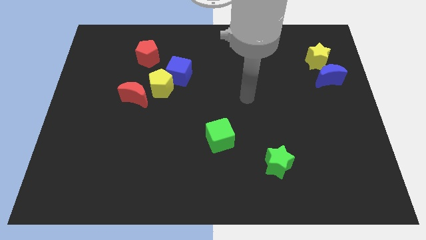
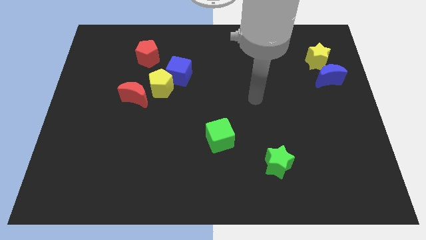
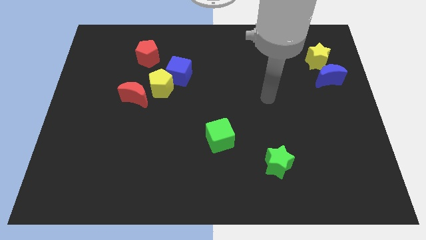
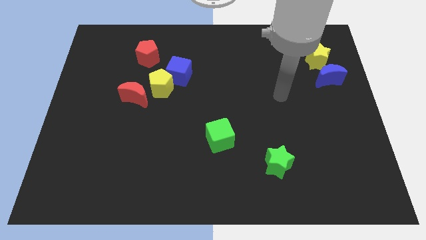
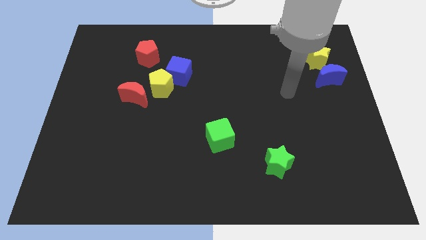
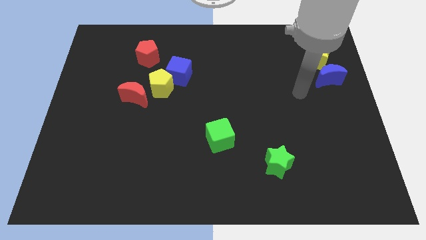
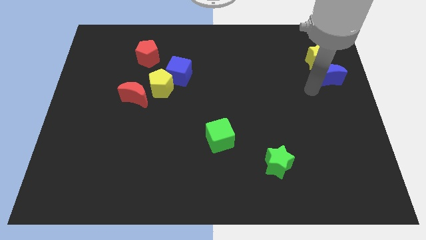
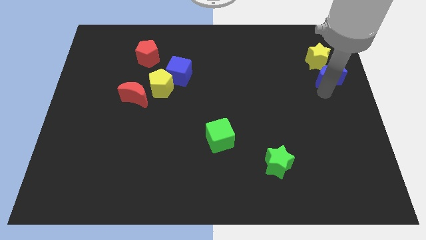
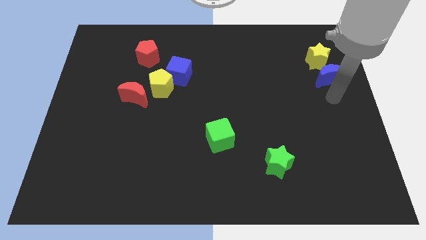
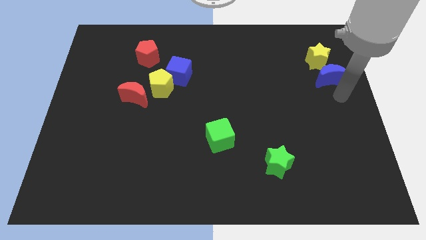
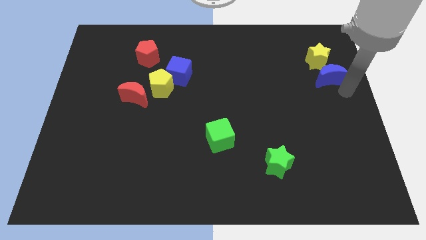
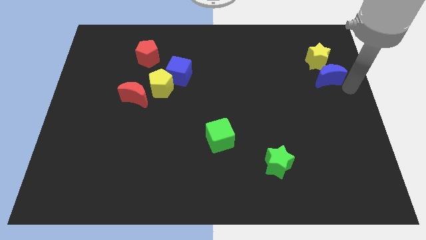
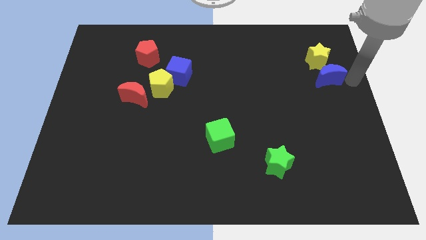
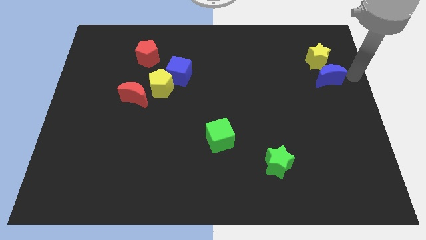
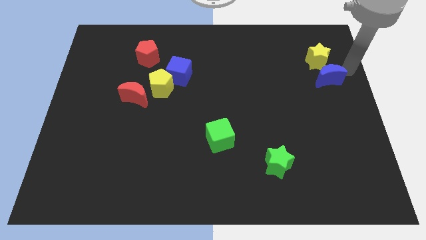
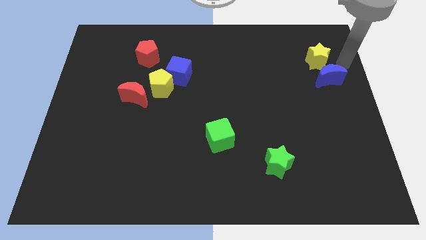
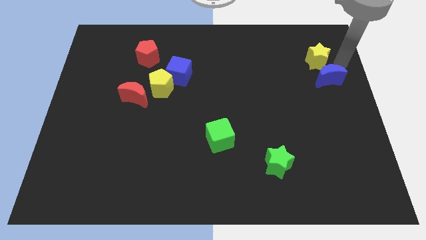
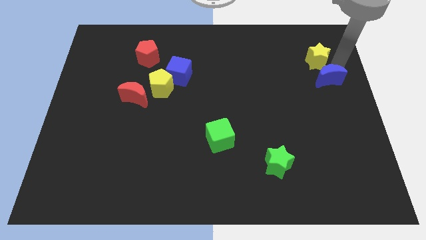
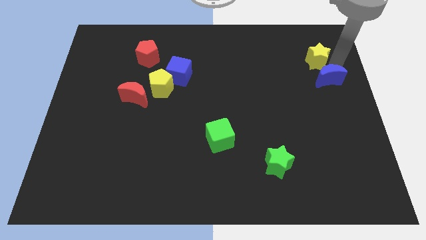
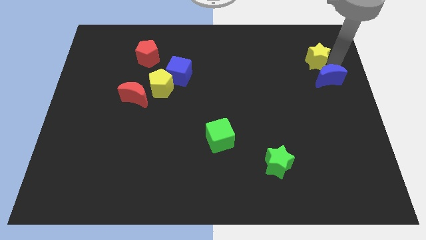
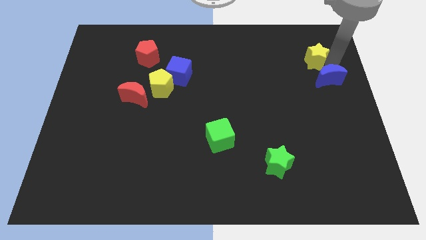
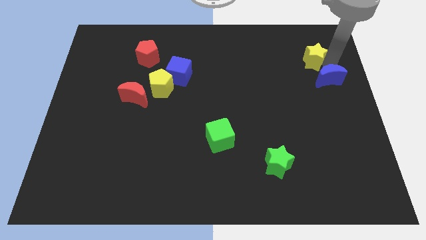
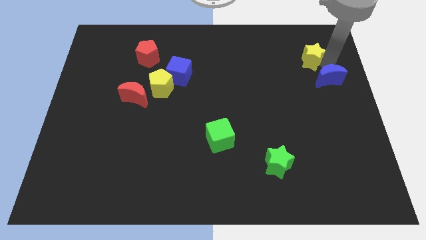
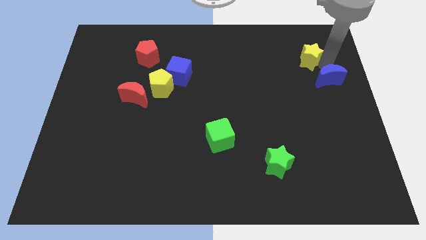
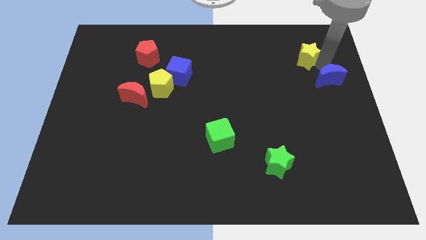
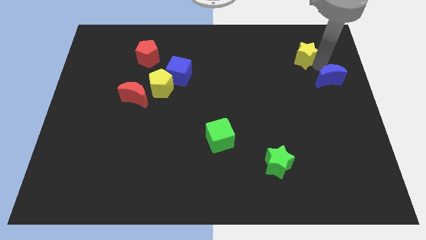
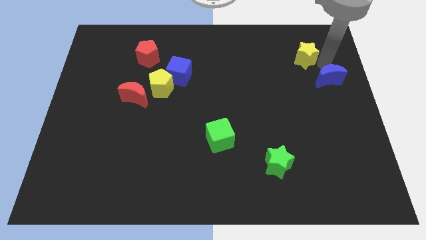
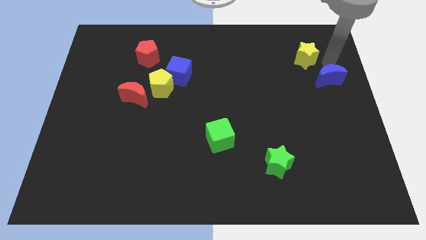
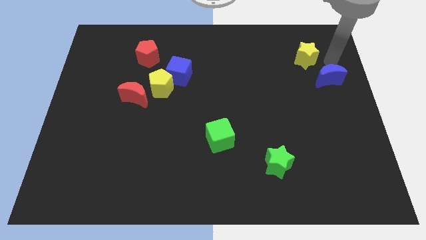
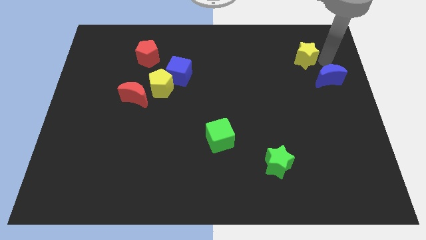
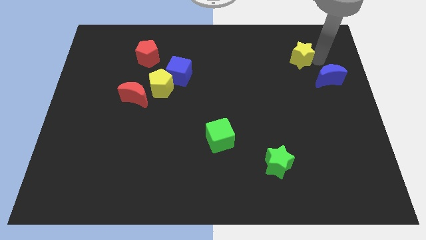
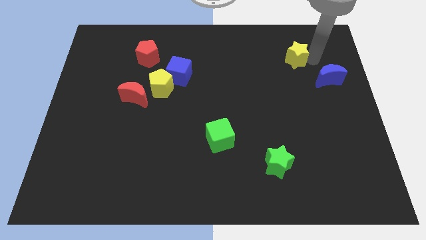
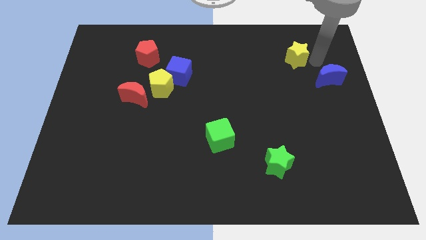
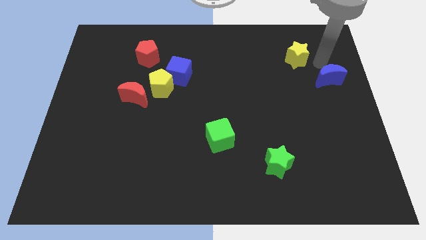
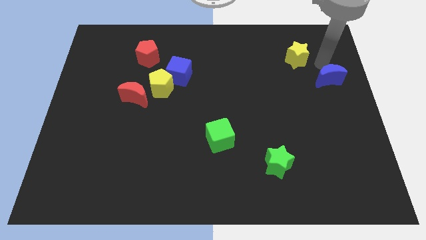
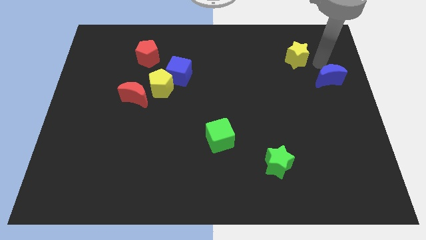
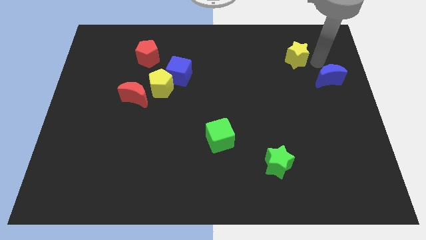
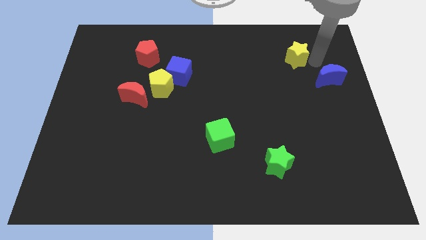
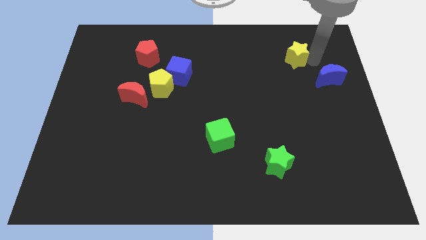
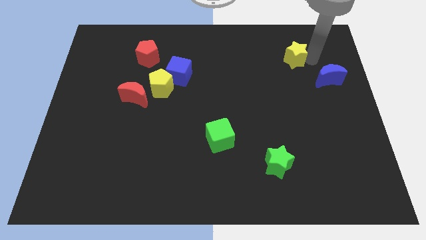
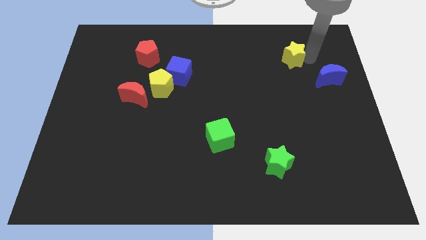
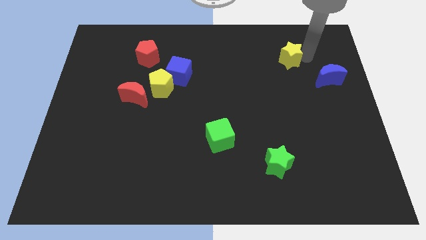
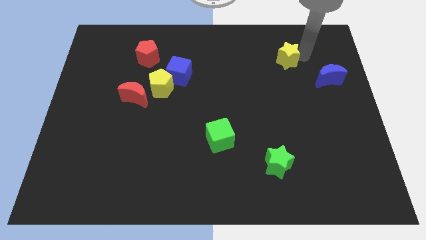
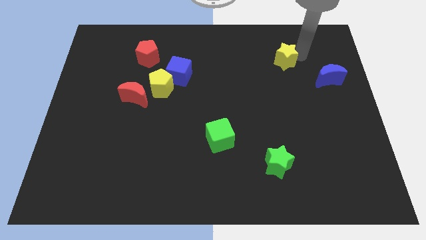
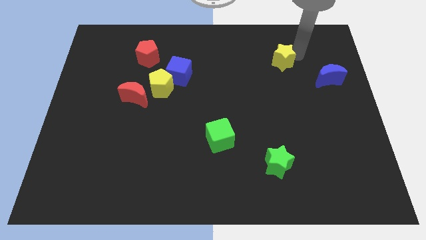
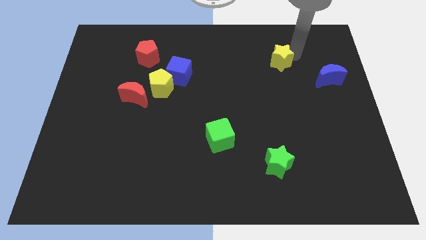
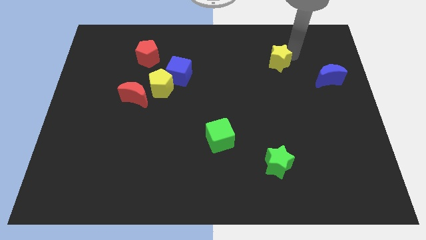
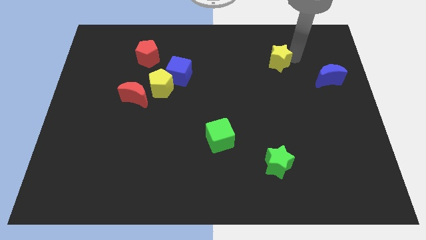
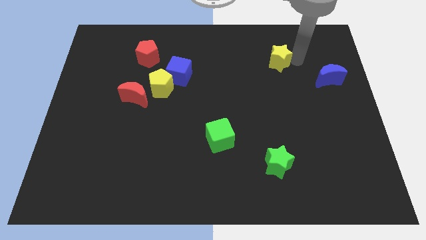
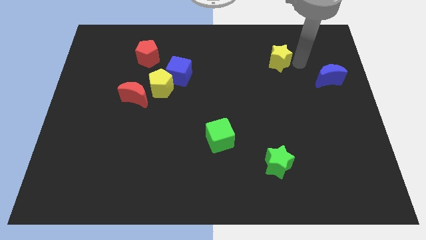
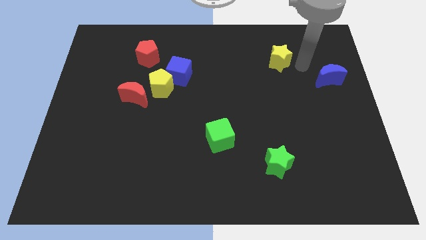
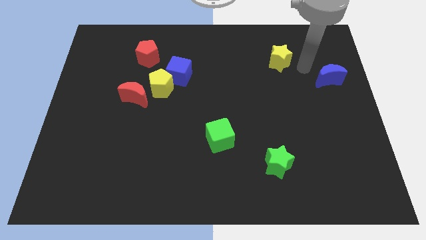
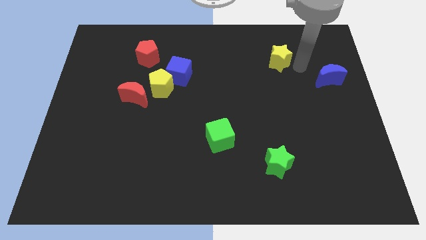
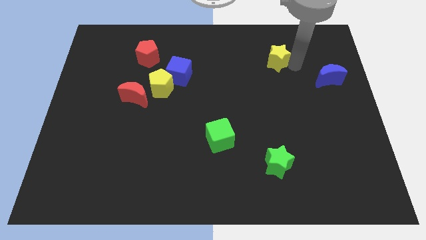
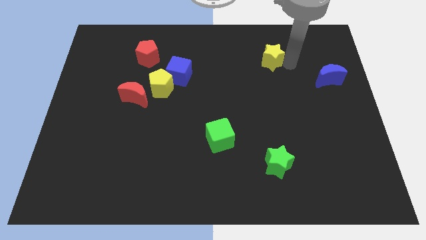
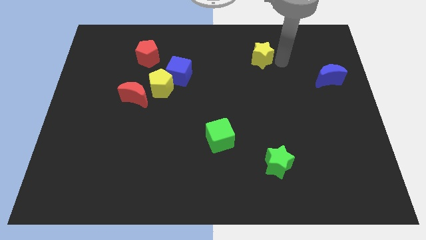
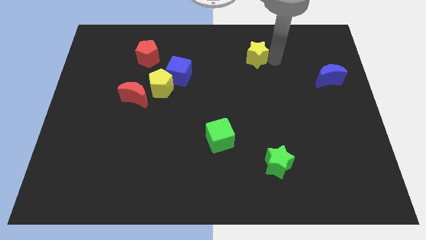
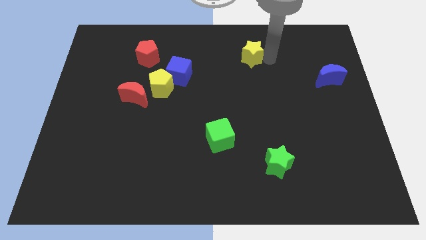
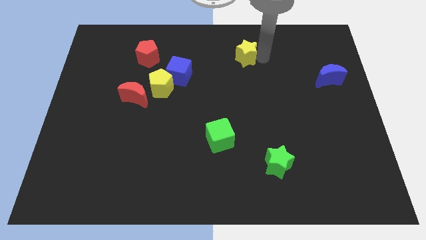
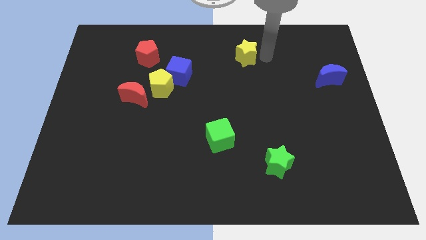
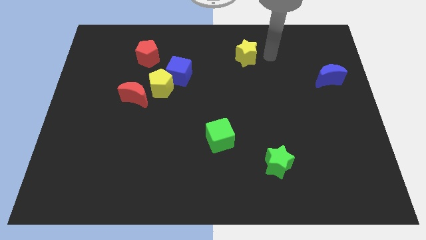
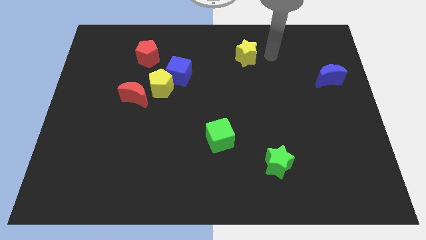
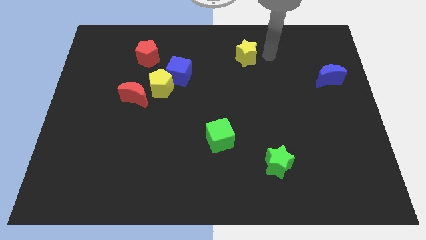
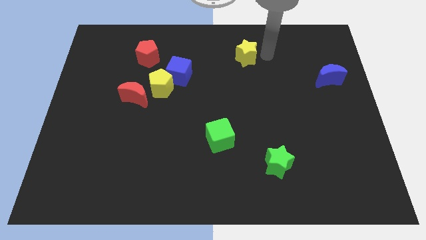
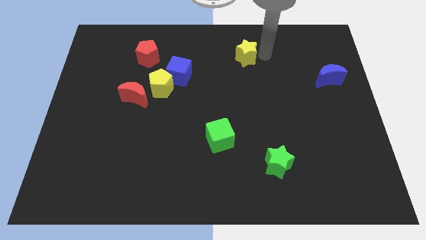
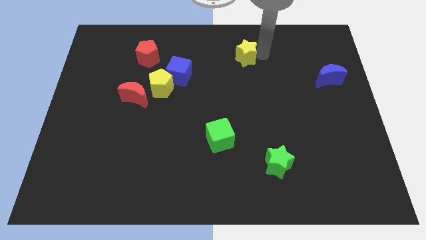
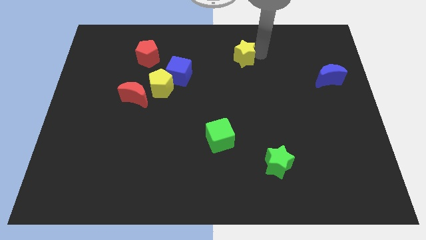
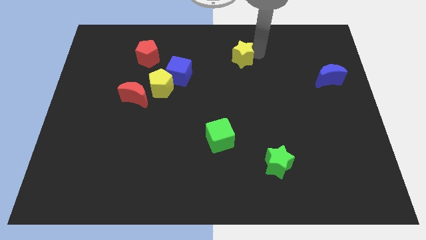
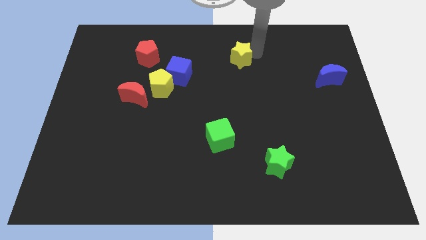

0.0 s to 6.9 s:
move the yellow star left

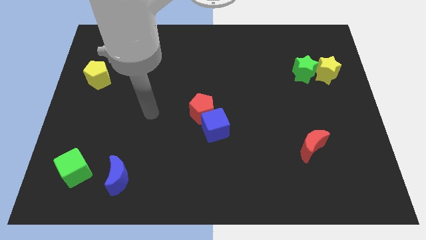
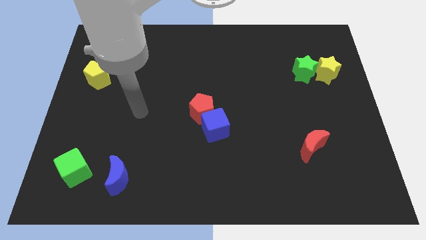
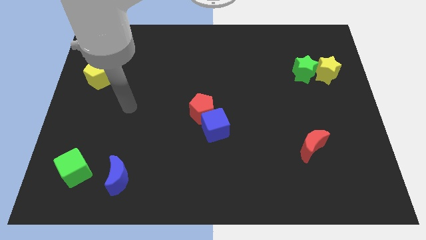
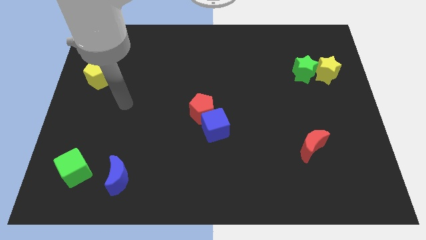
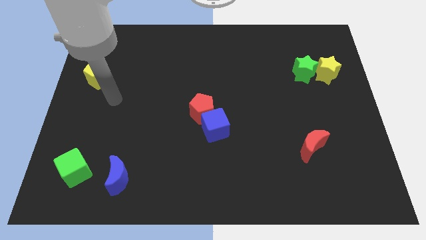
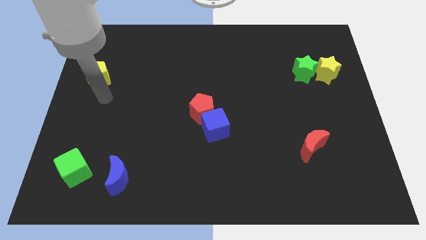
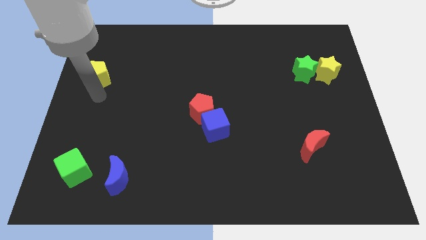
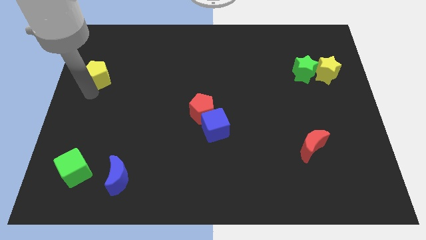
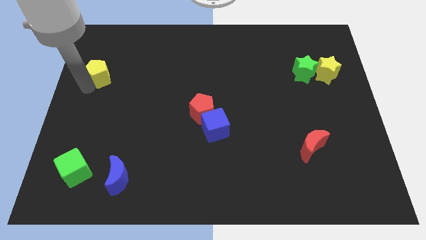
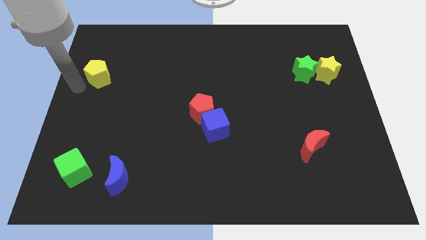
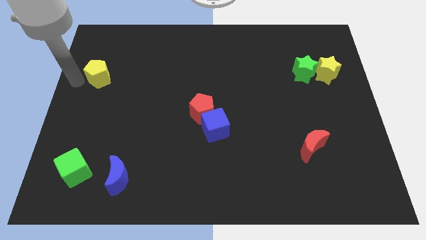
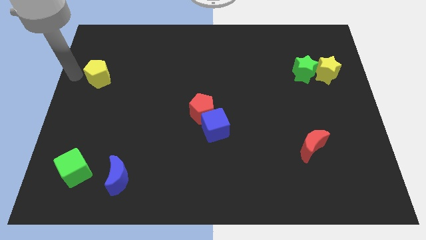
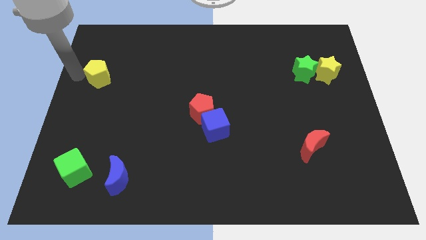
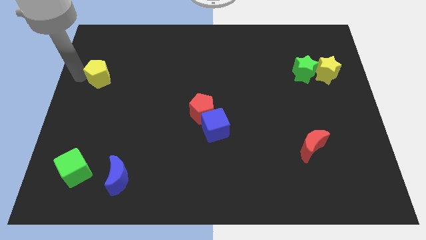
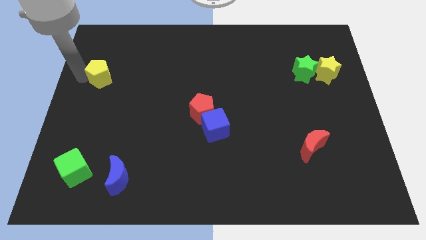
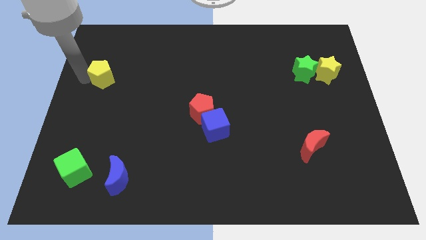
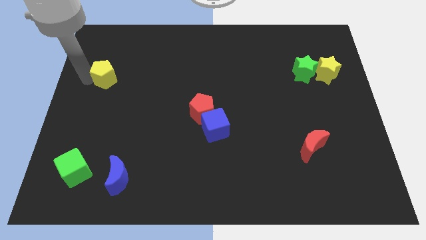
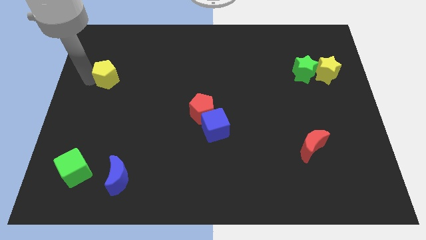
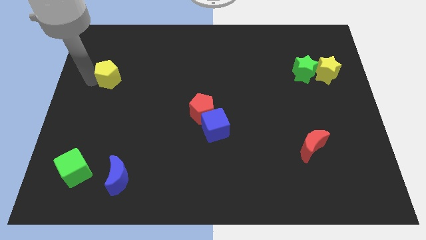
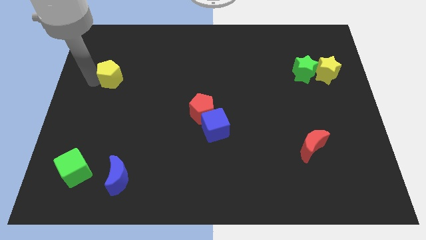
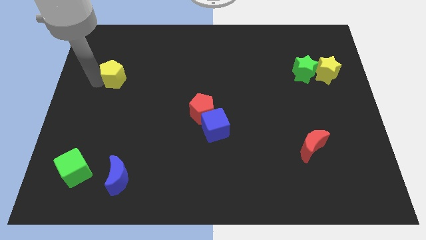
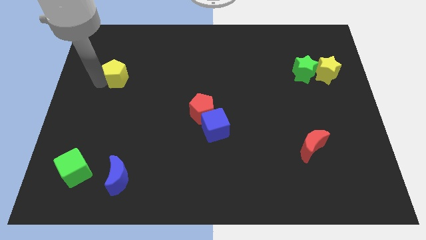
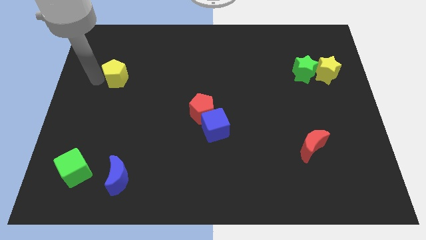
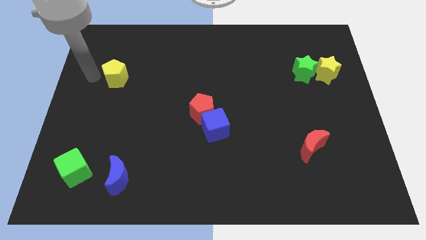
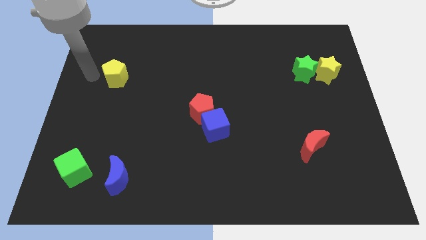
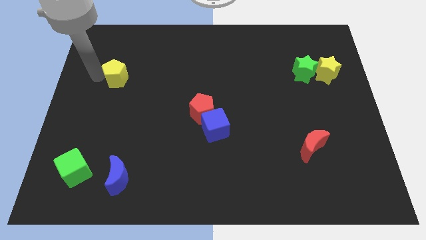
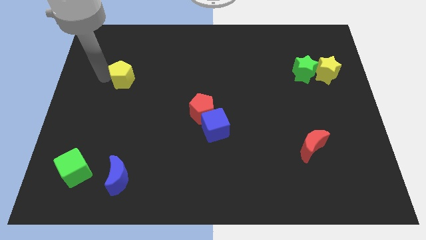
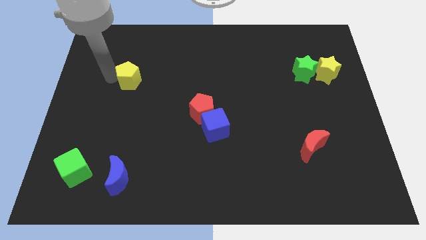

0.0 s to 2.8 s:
slide the yellow pentagon a little bit right
